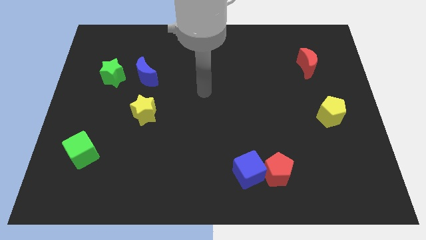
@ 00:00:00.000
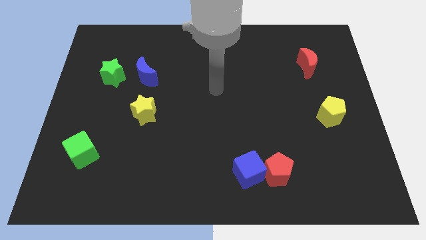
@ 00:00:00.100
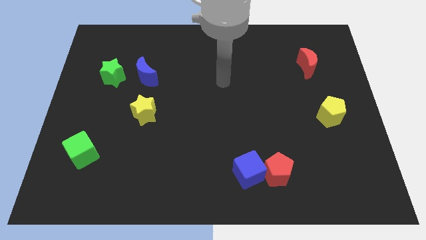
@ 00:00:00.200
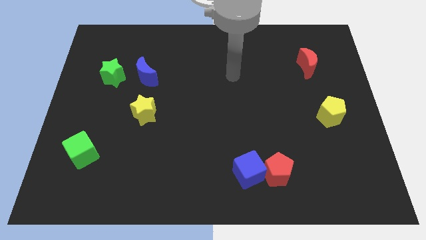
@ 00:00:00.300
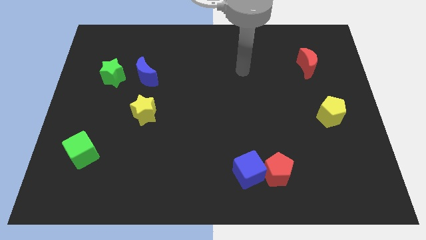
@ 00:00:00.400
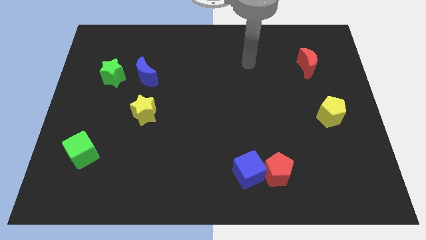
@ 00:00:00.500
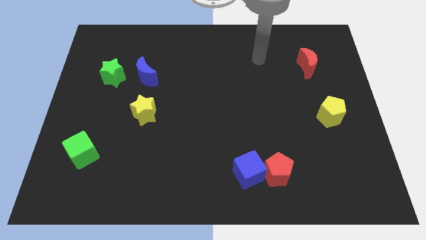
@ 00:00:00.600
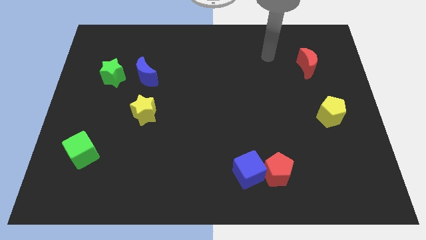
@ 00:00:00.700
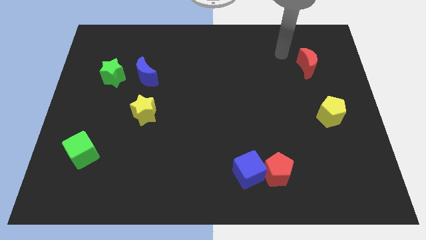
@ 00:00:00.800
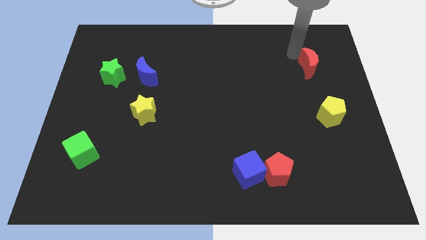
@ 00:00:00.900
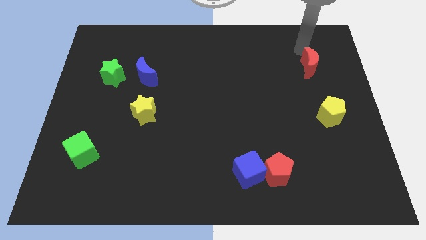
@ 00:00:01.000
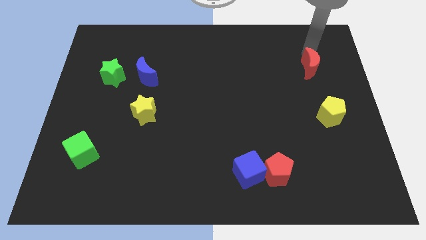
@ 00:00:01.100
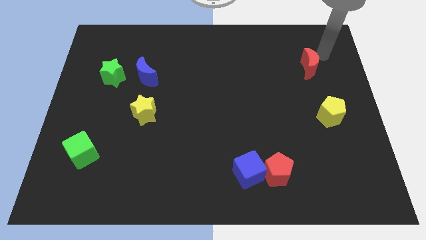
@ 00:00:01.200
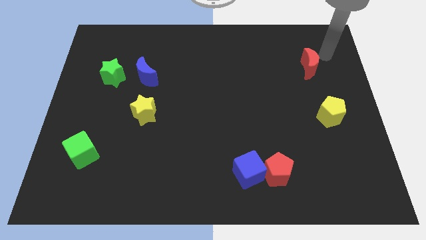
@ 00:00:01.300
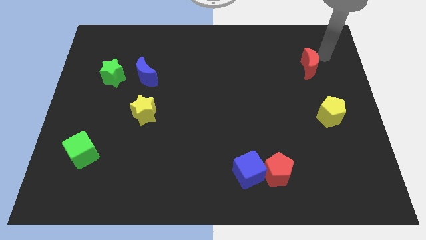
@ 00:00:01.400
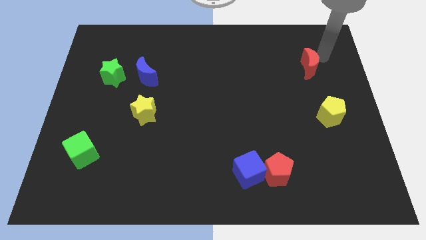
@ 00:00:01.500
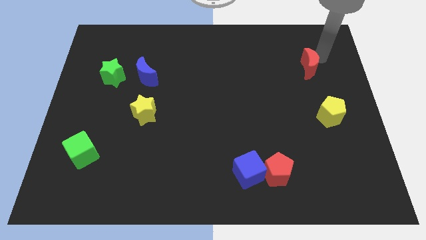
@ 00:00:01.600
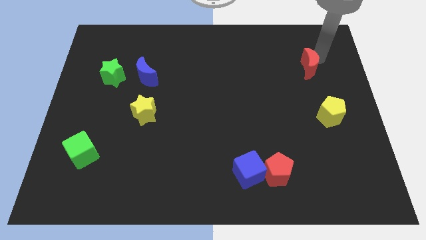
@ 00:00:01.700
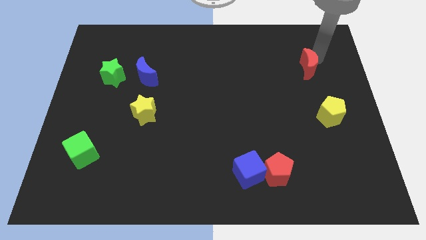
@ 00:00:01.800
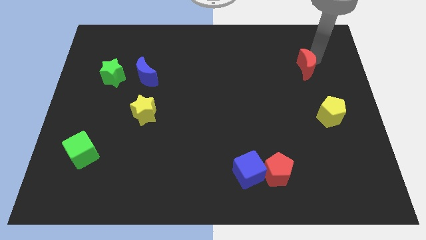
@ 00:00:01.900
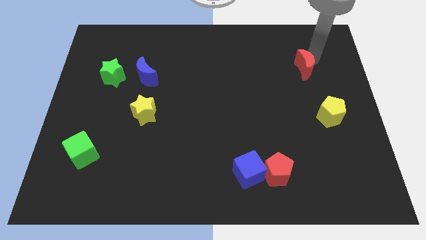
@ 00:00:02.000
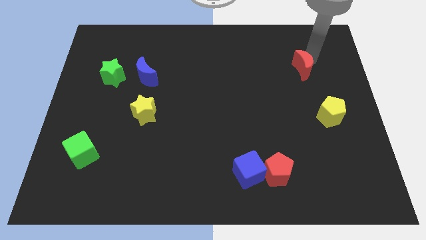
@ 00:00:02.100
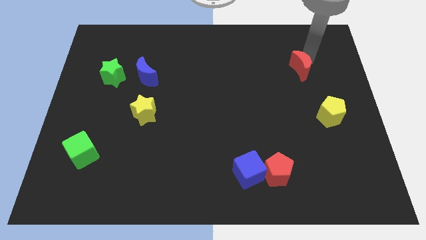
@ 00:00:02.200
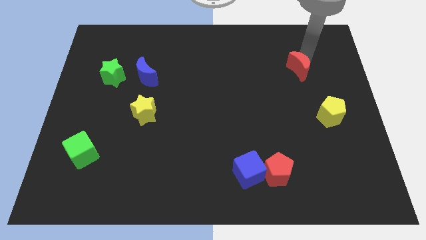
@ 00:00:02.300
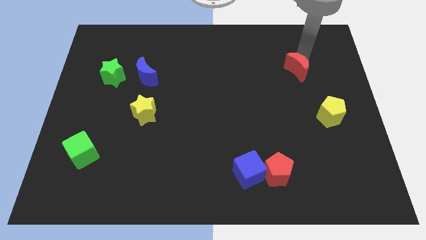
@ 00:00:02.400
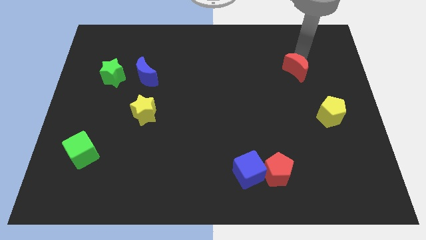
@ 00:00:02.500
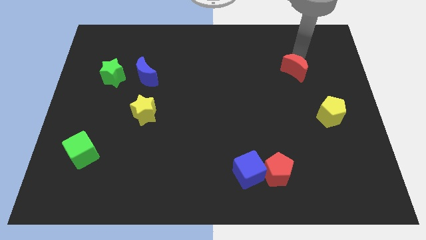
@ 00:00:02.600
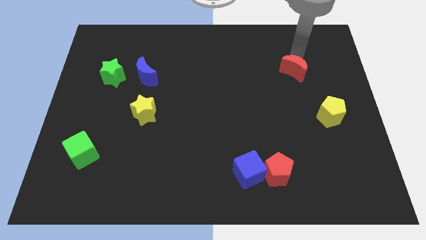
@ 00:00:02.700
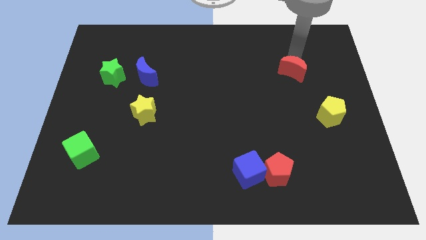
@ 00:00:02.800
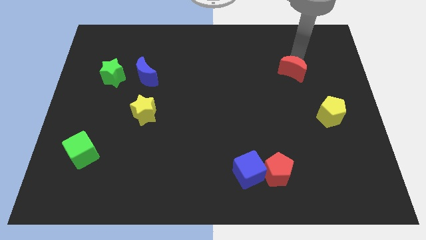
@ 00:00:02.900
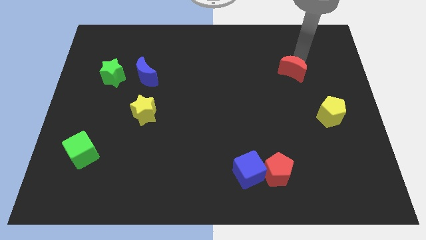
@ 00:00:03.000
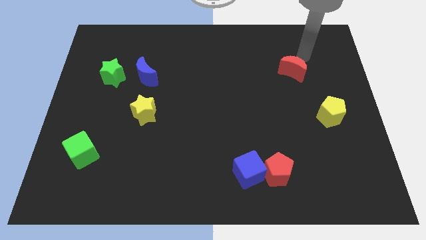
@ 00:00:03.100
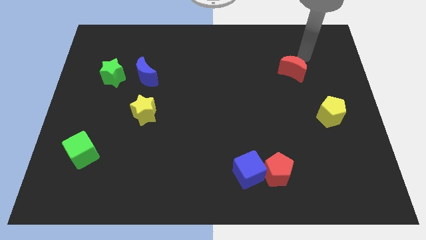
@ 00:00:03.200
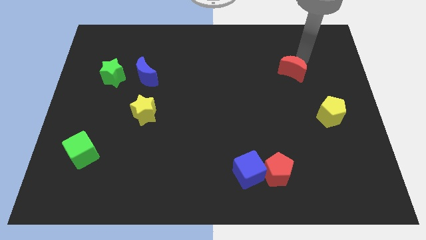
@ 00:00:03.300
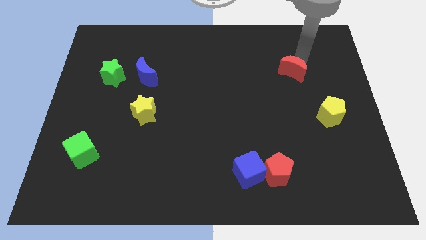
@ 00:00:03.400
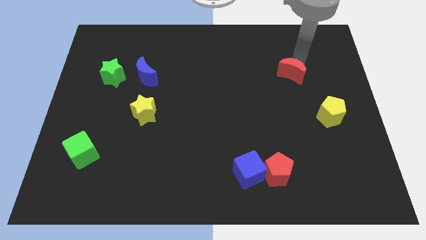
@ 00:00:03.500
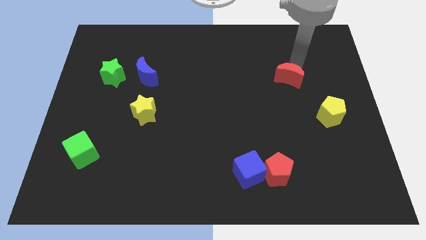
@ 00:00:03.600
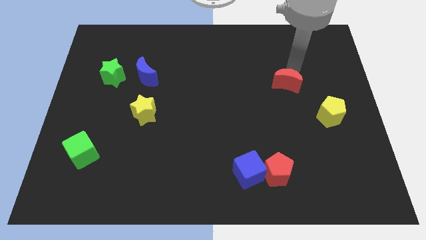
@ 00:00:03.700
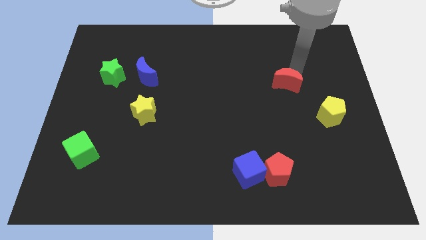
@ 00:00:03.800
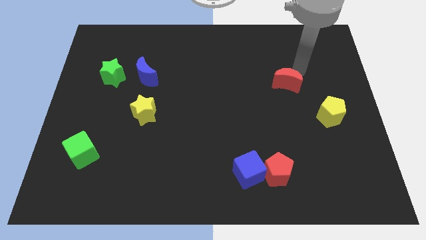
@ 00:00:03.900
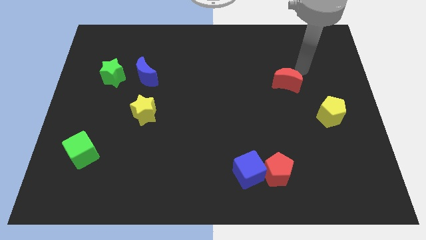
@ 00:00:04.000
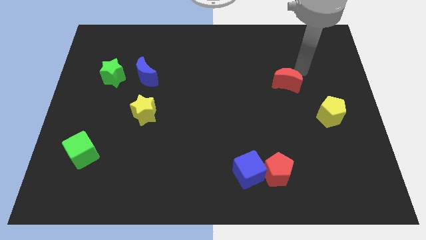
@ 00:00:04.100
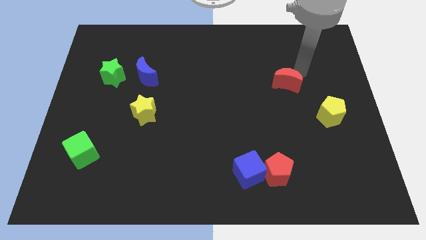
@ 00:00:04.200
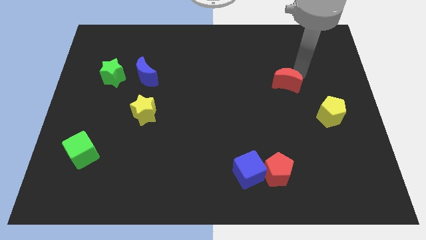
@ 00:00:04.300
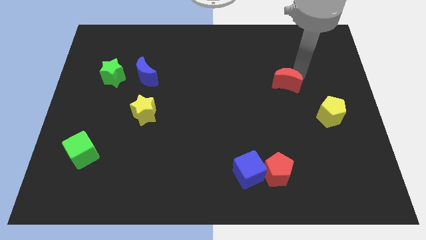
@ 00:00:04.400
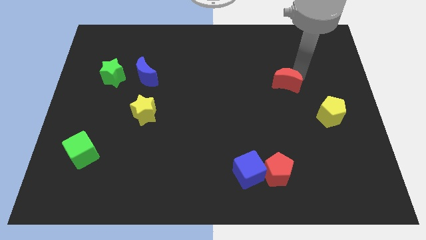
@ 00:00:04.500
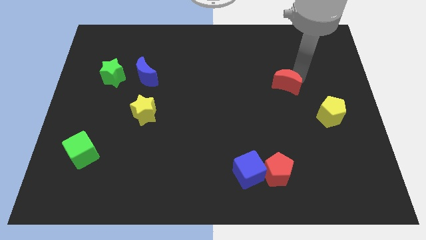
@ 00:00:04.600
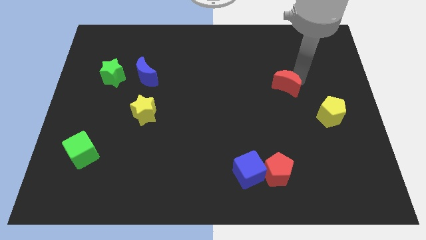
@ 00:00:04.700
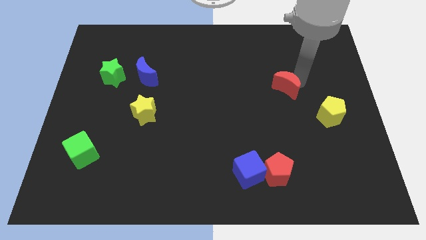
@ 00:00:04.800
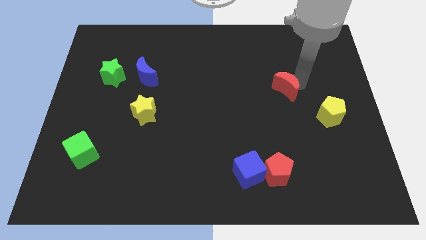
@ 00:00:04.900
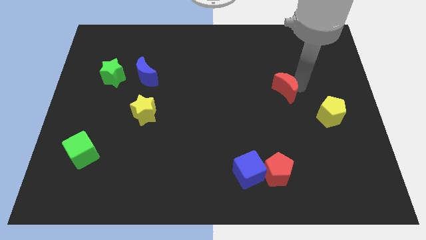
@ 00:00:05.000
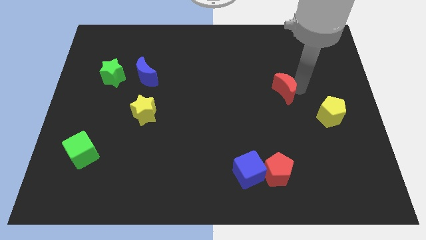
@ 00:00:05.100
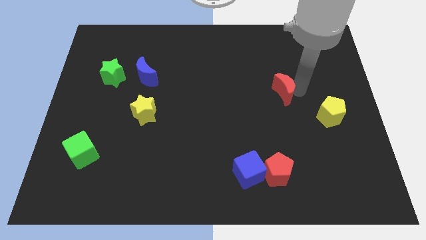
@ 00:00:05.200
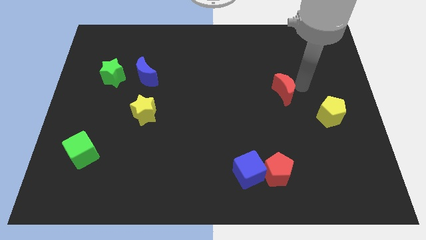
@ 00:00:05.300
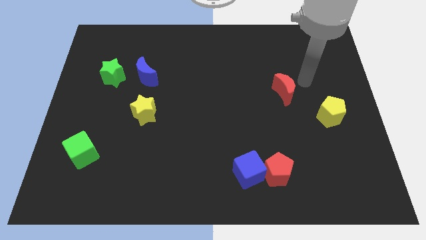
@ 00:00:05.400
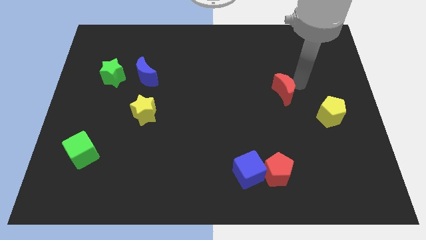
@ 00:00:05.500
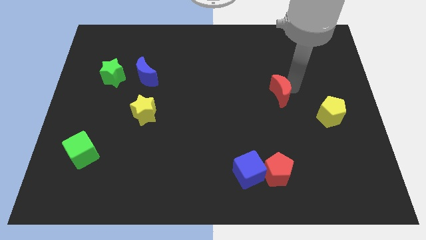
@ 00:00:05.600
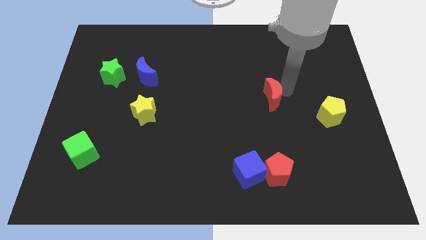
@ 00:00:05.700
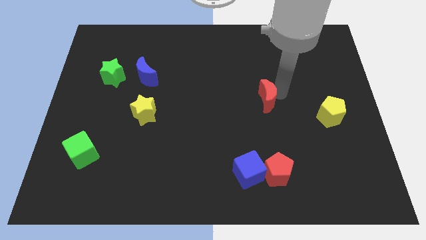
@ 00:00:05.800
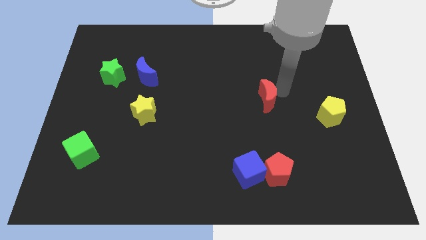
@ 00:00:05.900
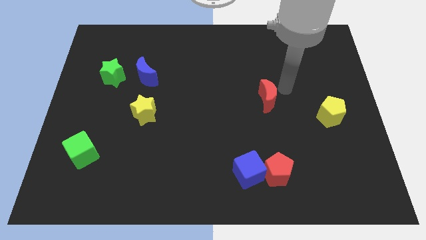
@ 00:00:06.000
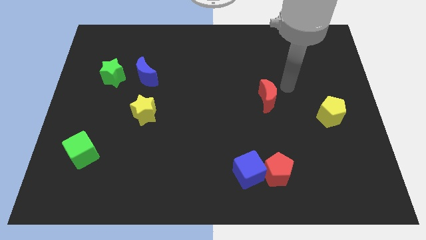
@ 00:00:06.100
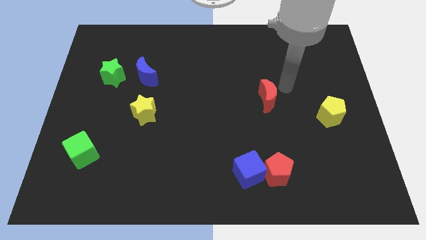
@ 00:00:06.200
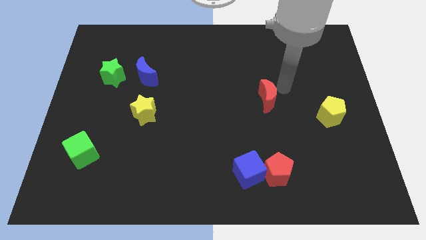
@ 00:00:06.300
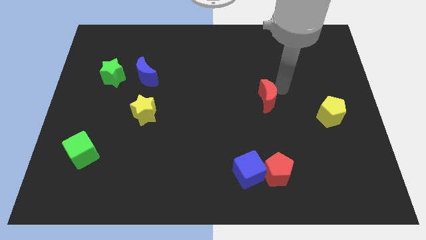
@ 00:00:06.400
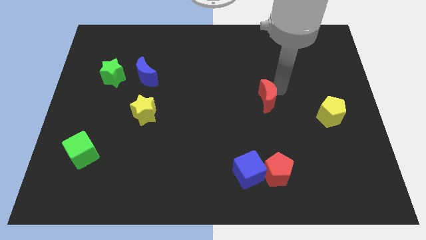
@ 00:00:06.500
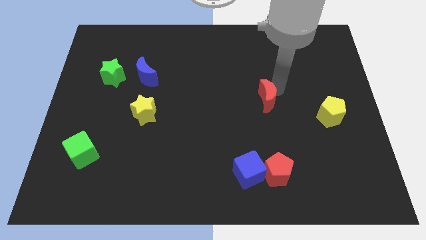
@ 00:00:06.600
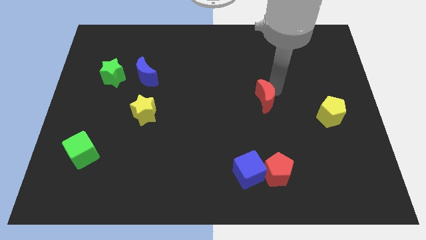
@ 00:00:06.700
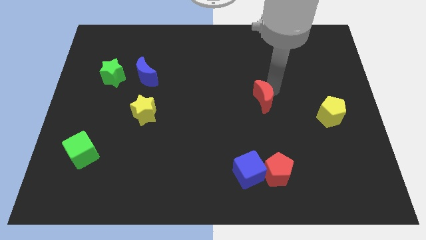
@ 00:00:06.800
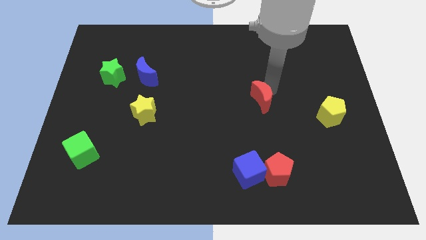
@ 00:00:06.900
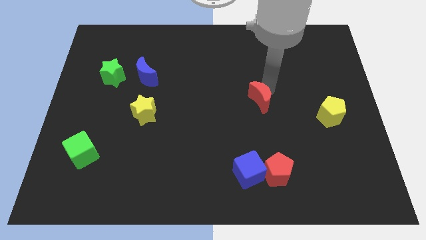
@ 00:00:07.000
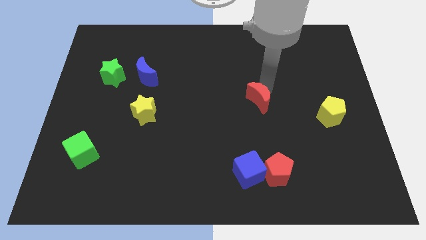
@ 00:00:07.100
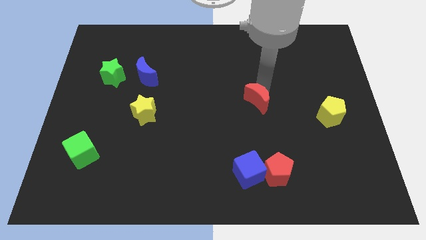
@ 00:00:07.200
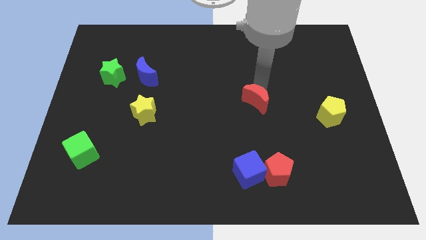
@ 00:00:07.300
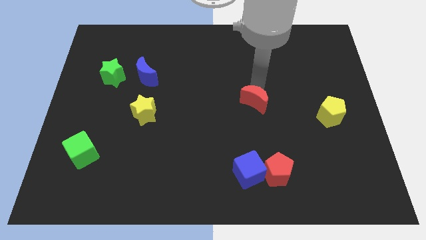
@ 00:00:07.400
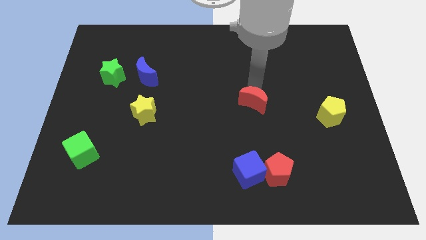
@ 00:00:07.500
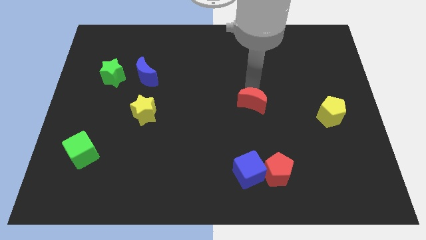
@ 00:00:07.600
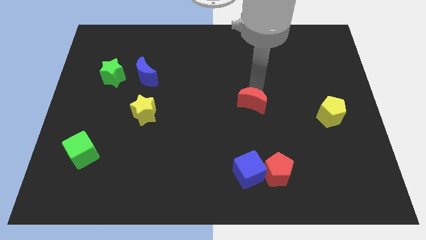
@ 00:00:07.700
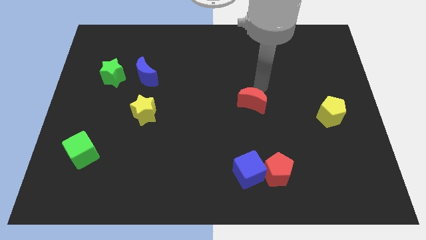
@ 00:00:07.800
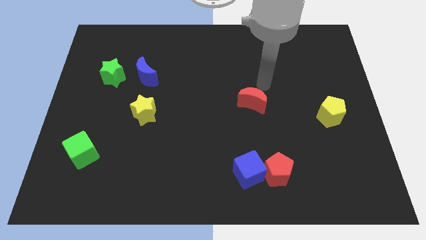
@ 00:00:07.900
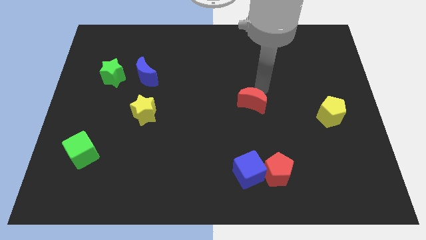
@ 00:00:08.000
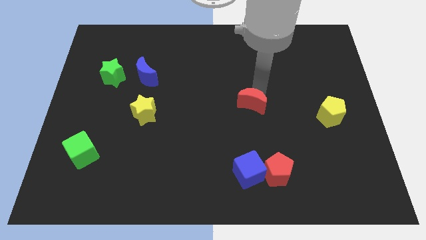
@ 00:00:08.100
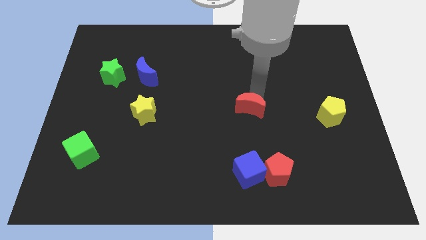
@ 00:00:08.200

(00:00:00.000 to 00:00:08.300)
push the red moon down and to the left
